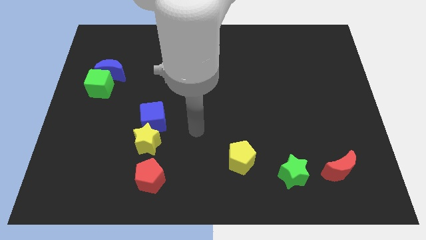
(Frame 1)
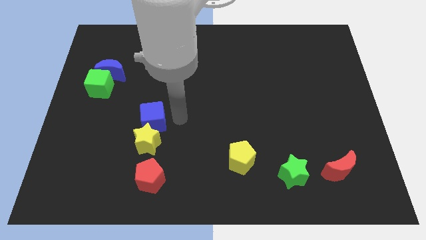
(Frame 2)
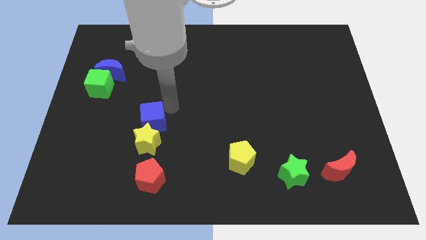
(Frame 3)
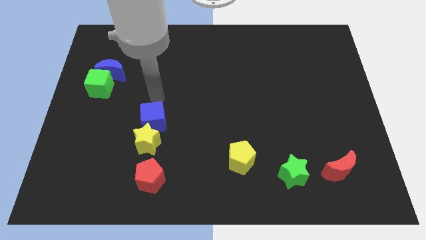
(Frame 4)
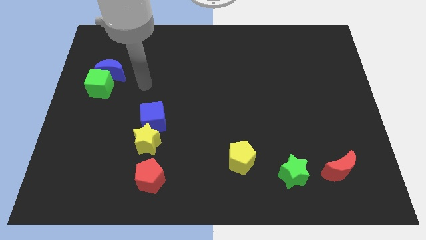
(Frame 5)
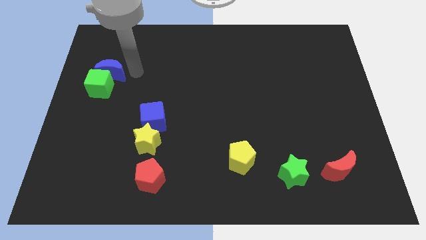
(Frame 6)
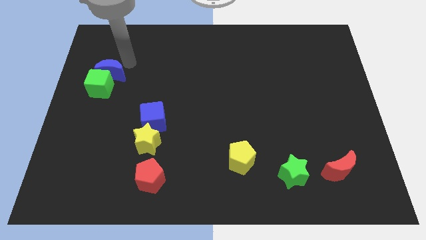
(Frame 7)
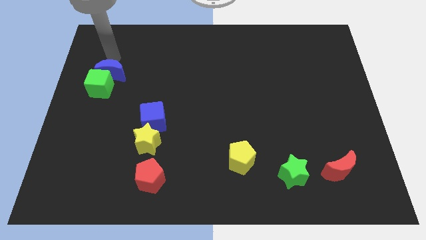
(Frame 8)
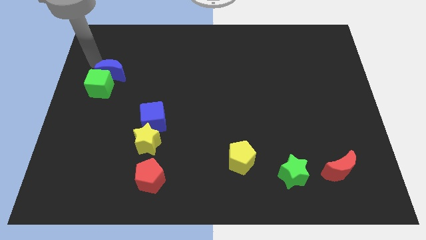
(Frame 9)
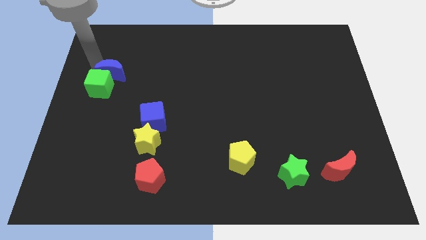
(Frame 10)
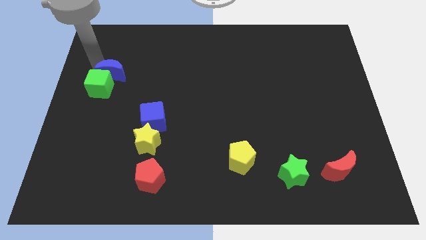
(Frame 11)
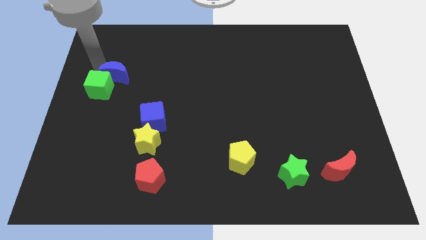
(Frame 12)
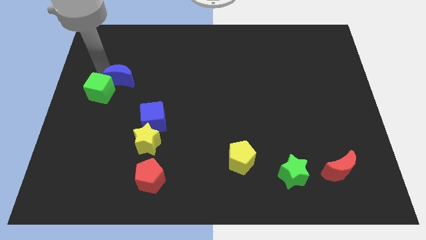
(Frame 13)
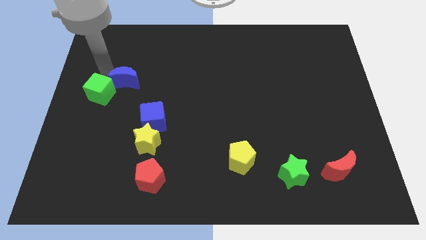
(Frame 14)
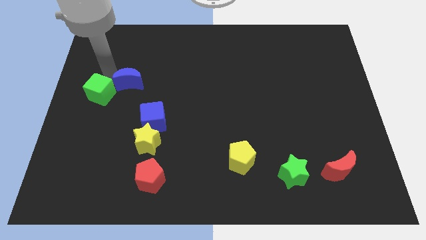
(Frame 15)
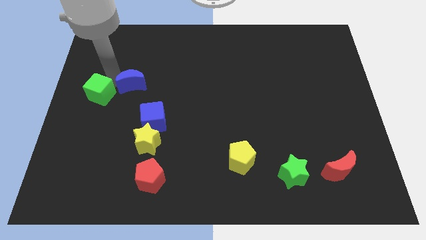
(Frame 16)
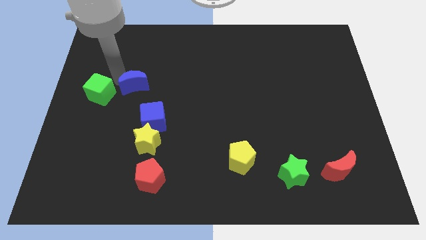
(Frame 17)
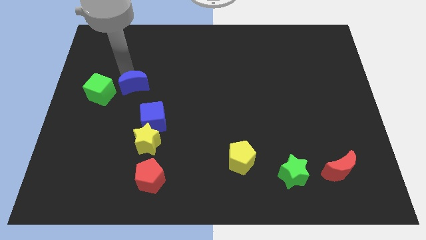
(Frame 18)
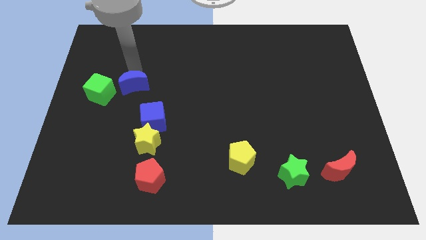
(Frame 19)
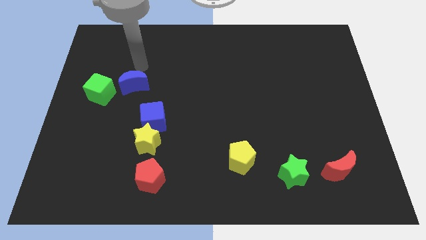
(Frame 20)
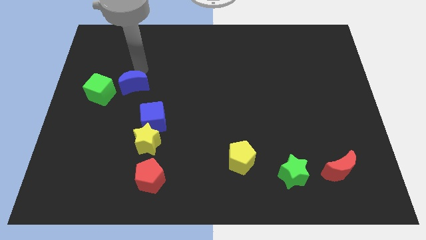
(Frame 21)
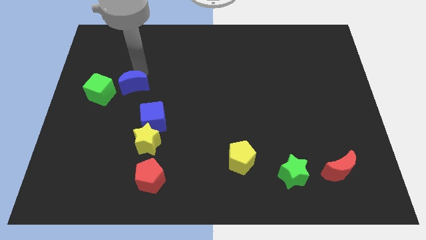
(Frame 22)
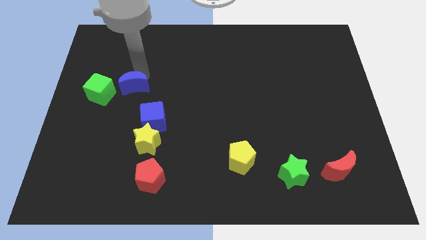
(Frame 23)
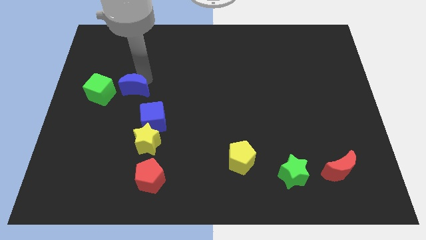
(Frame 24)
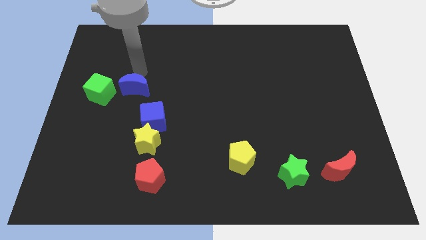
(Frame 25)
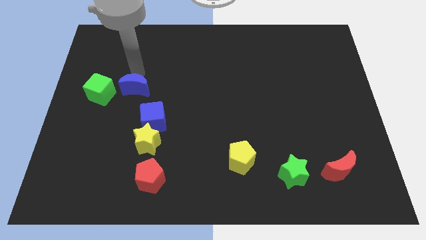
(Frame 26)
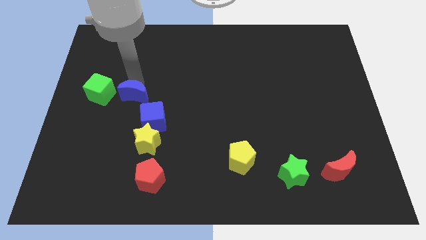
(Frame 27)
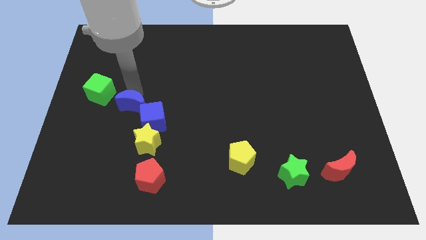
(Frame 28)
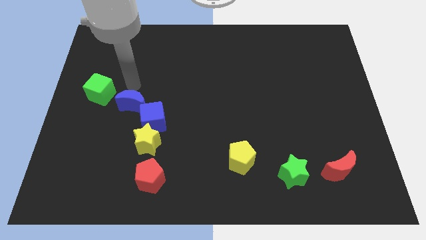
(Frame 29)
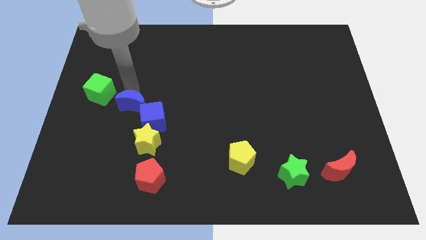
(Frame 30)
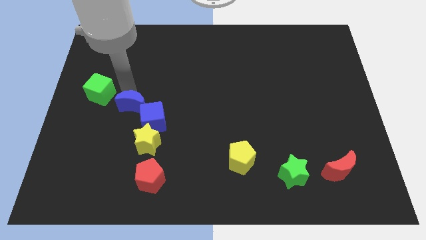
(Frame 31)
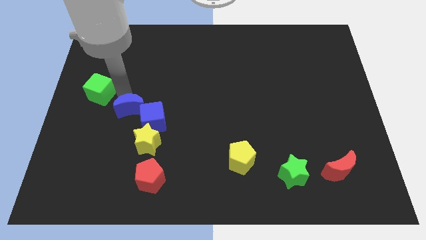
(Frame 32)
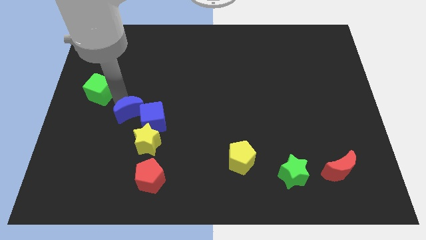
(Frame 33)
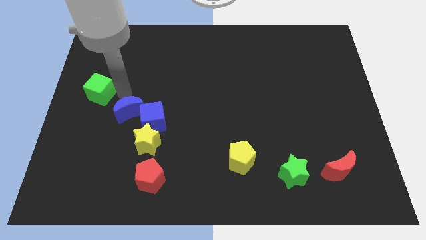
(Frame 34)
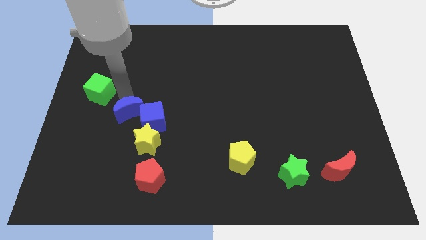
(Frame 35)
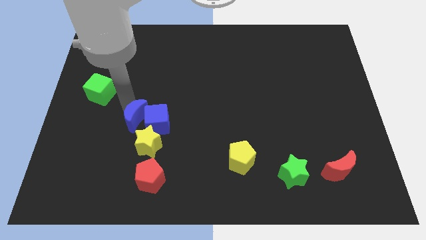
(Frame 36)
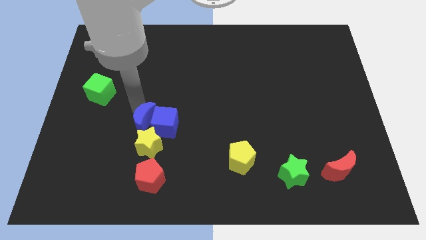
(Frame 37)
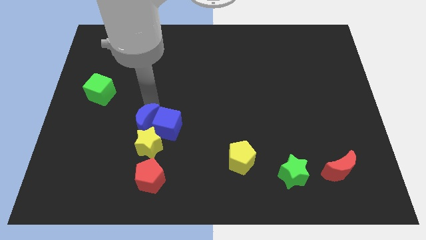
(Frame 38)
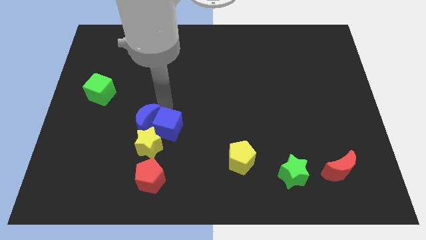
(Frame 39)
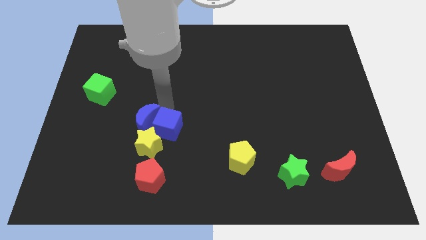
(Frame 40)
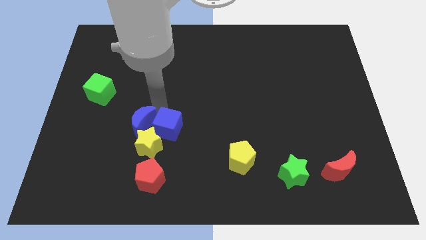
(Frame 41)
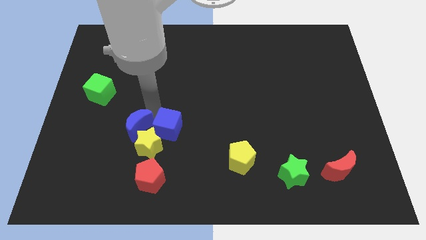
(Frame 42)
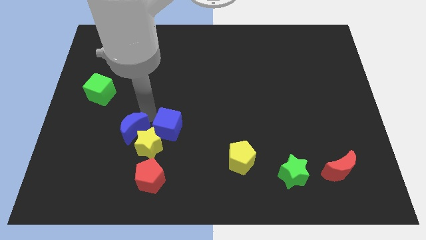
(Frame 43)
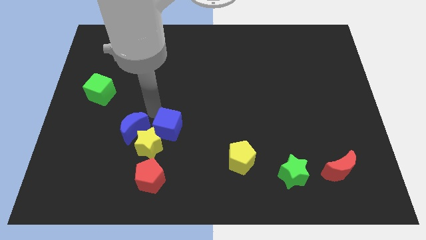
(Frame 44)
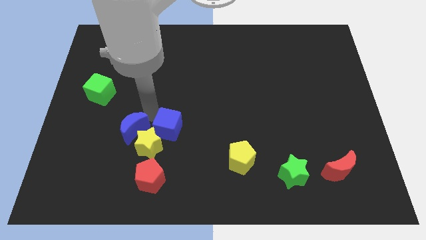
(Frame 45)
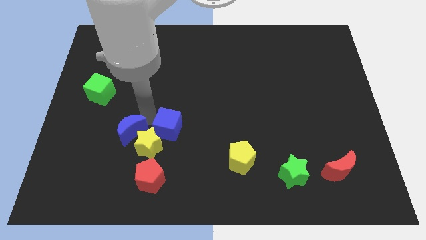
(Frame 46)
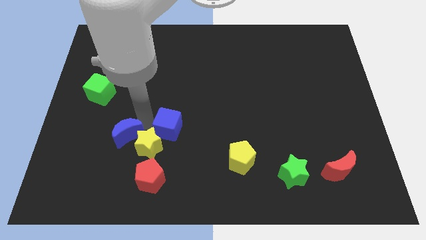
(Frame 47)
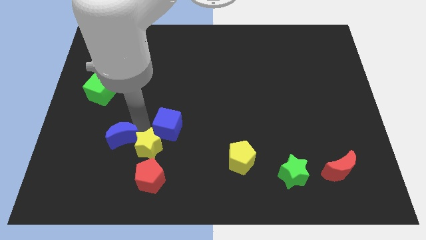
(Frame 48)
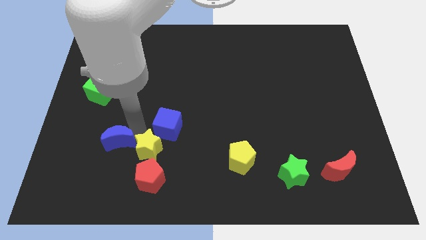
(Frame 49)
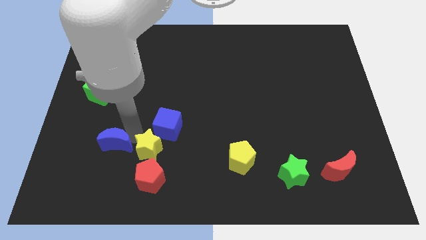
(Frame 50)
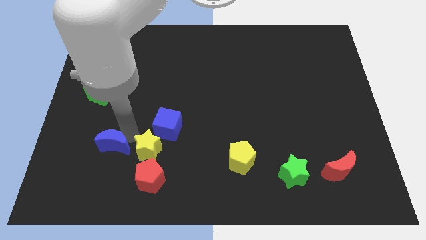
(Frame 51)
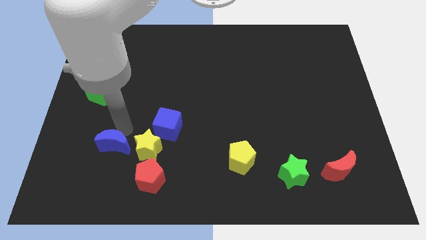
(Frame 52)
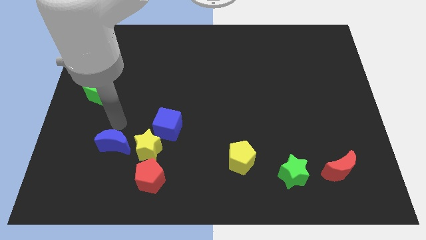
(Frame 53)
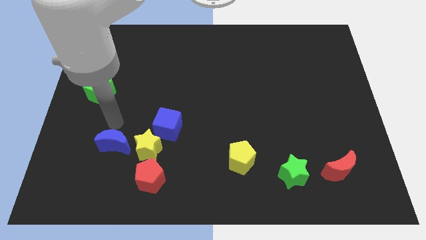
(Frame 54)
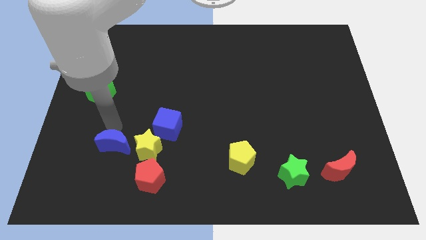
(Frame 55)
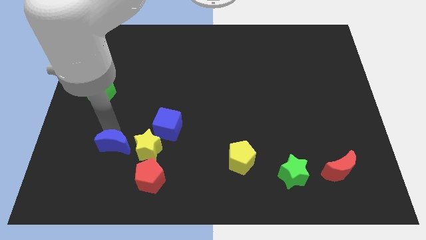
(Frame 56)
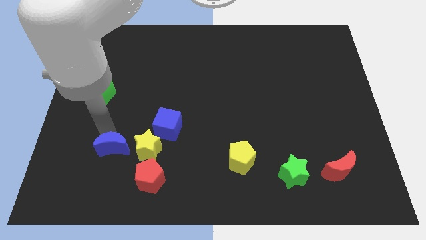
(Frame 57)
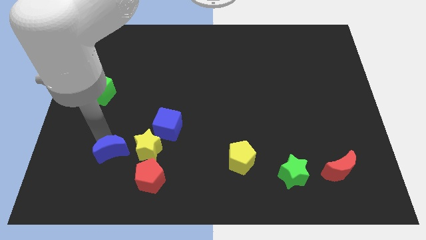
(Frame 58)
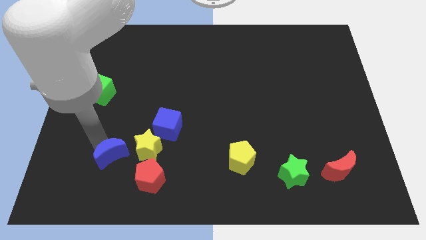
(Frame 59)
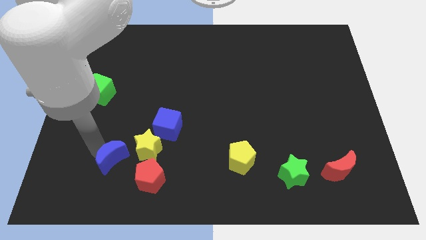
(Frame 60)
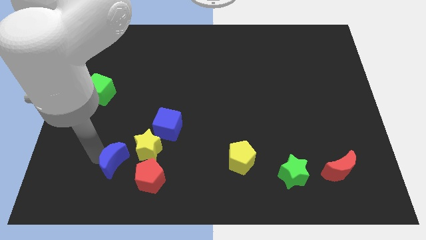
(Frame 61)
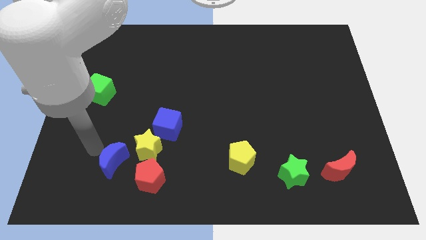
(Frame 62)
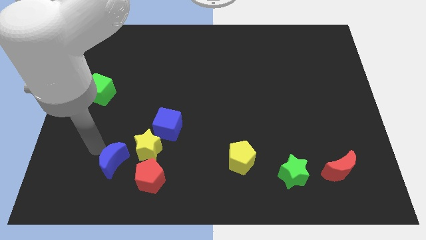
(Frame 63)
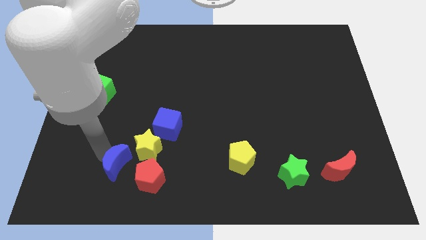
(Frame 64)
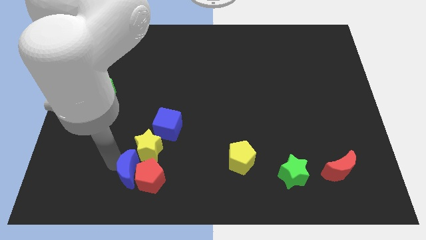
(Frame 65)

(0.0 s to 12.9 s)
slide the blue moon towards the red pentagon

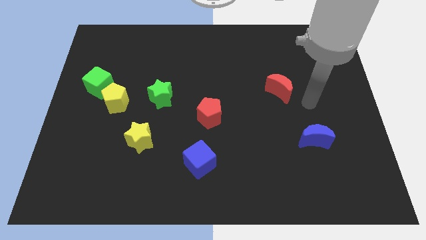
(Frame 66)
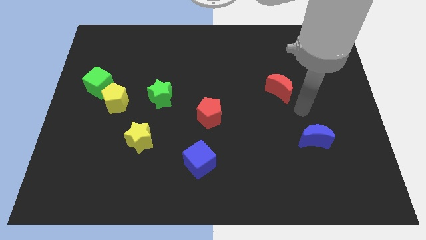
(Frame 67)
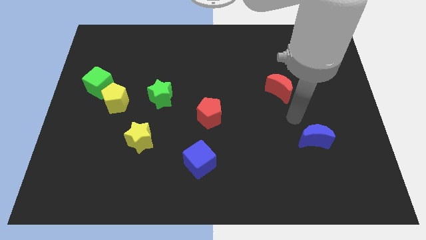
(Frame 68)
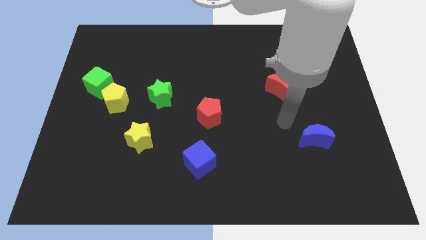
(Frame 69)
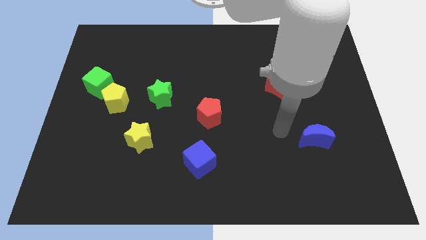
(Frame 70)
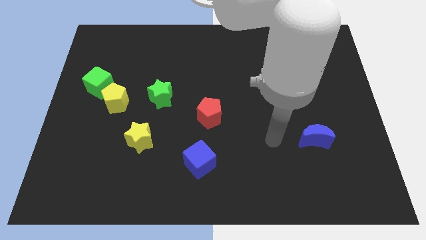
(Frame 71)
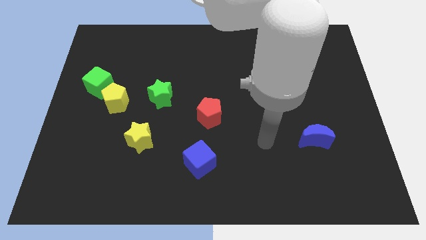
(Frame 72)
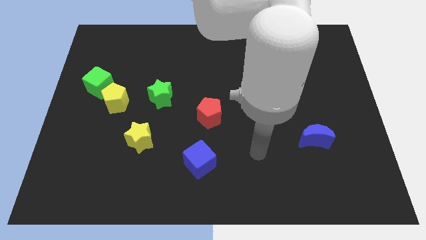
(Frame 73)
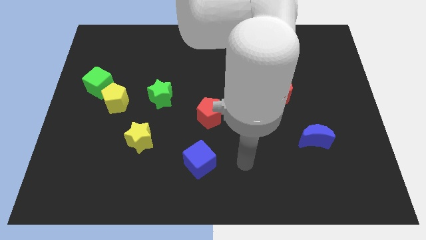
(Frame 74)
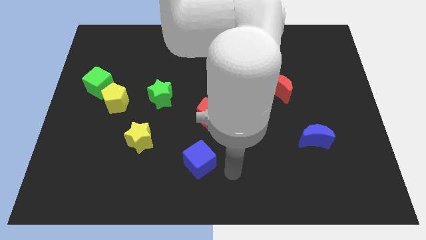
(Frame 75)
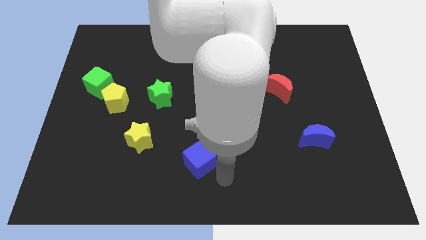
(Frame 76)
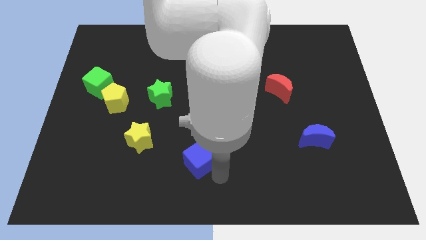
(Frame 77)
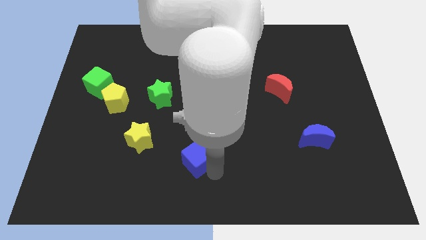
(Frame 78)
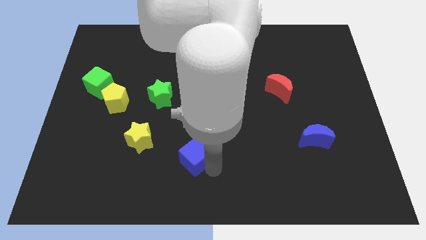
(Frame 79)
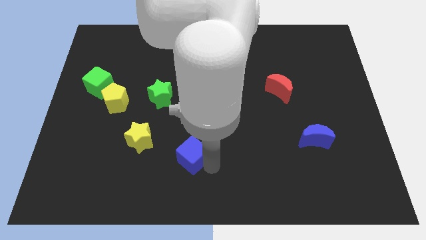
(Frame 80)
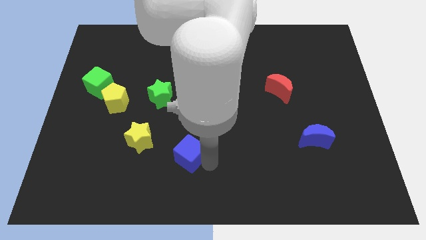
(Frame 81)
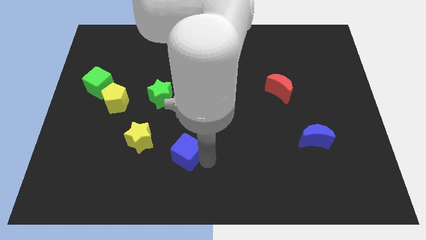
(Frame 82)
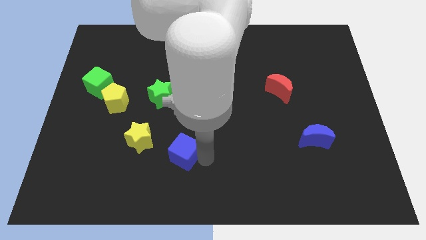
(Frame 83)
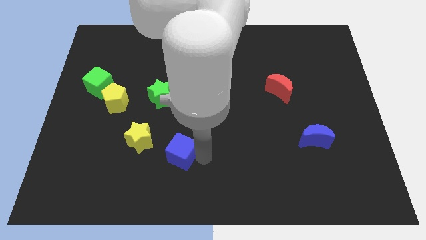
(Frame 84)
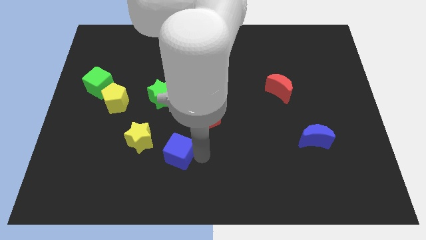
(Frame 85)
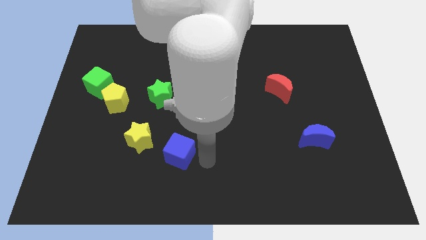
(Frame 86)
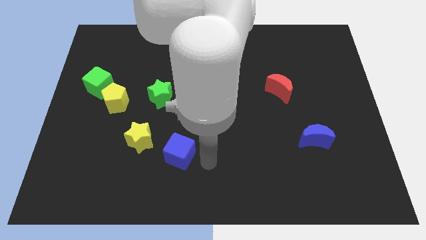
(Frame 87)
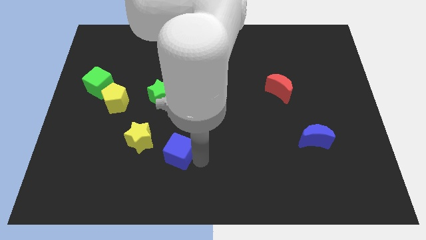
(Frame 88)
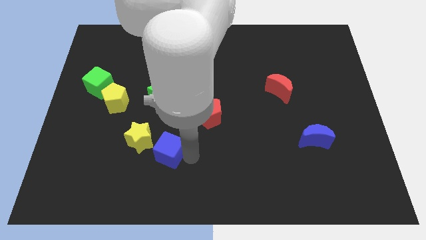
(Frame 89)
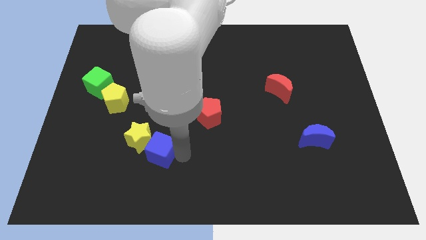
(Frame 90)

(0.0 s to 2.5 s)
slide the blue cube next to the yellow star
